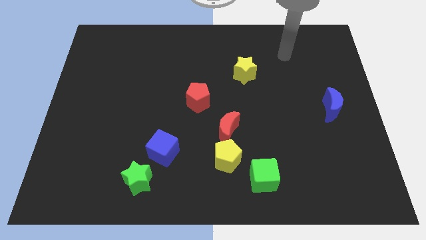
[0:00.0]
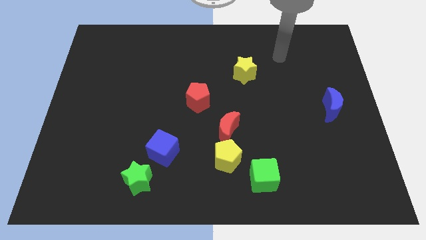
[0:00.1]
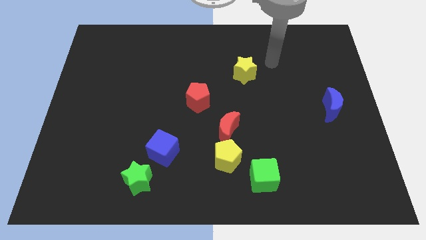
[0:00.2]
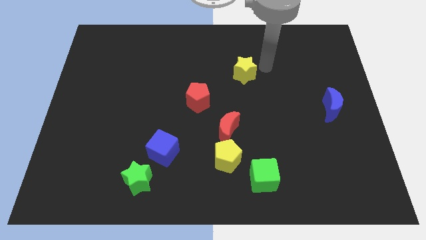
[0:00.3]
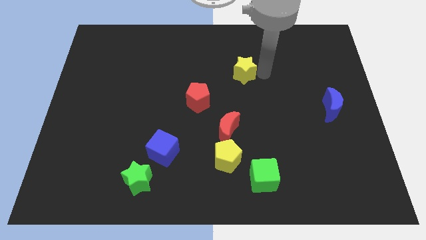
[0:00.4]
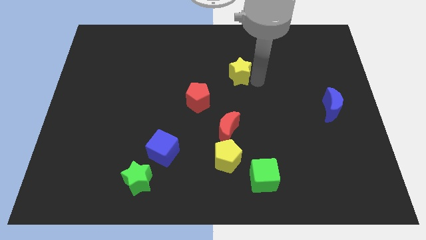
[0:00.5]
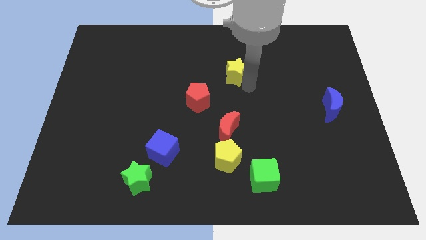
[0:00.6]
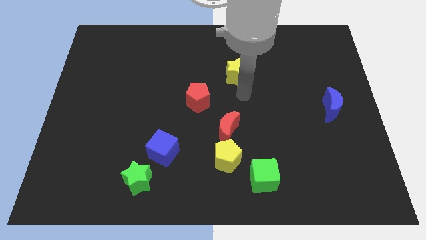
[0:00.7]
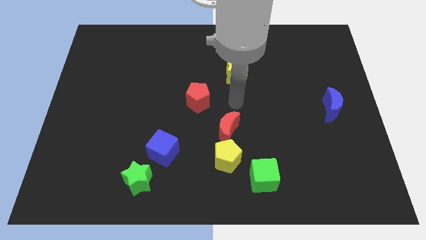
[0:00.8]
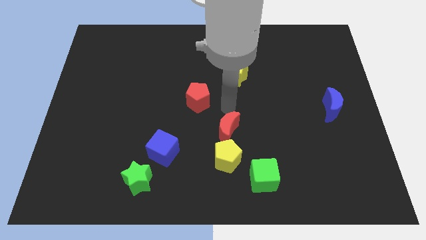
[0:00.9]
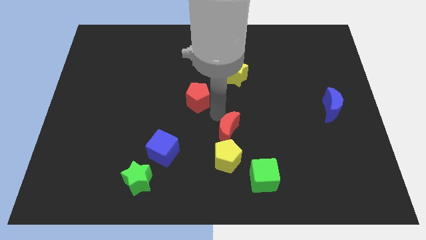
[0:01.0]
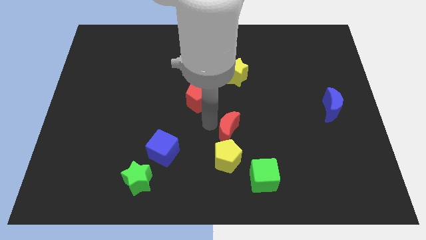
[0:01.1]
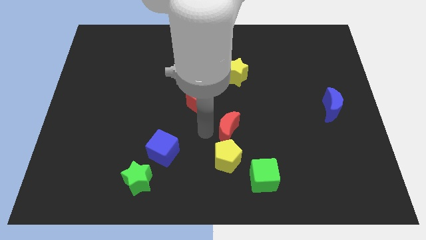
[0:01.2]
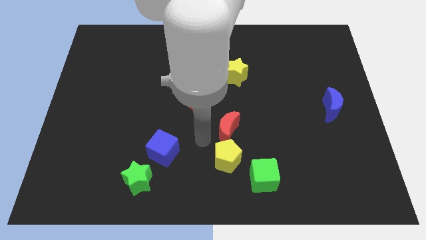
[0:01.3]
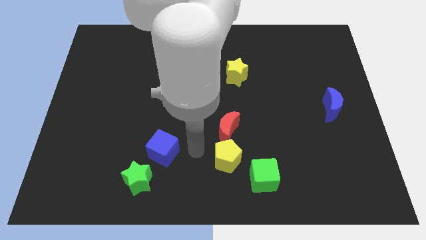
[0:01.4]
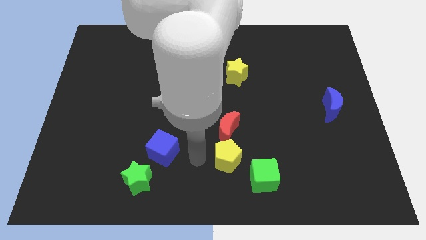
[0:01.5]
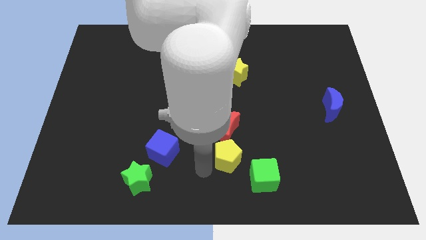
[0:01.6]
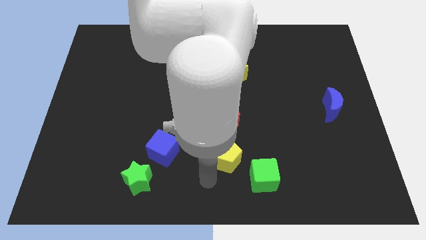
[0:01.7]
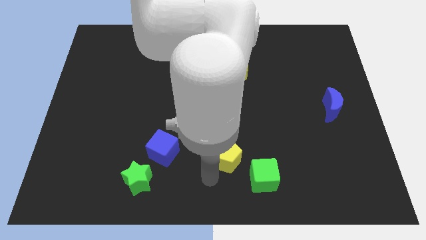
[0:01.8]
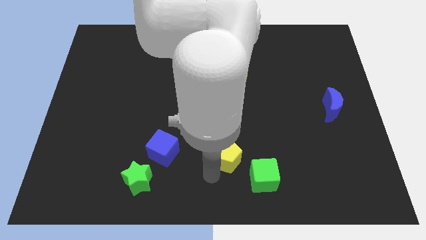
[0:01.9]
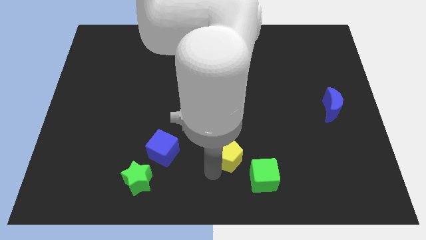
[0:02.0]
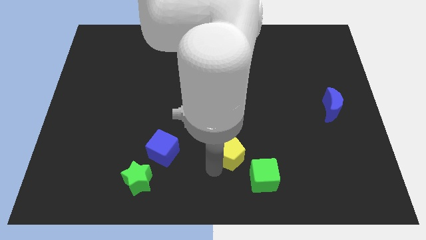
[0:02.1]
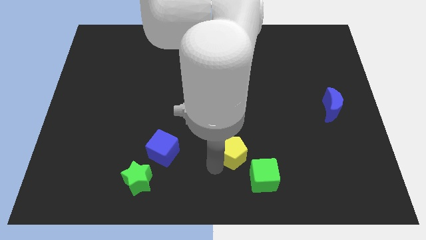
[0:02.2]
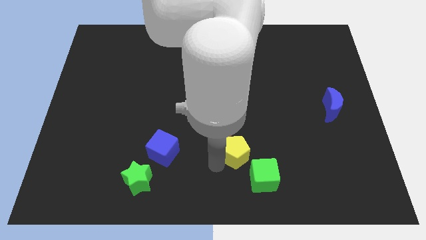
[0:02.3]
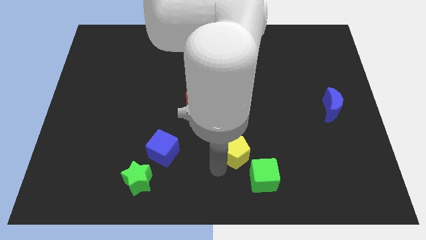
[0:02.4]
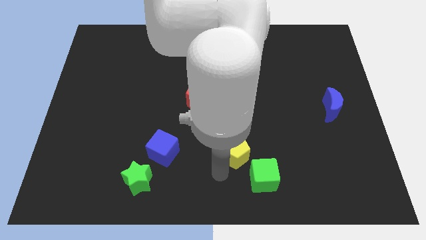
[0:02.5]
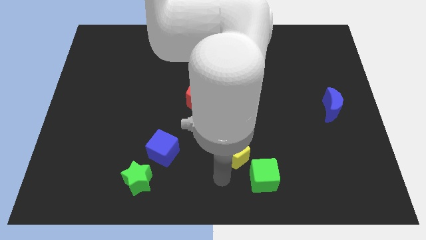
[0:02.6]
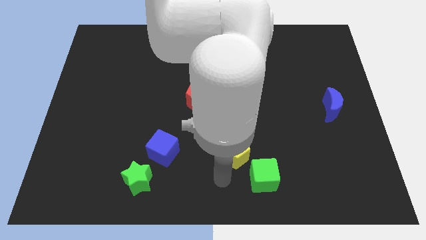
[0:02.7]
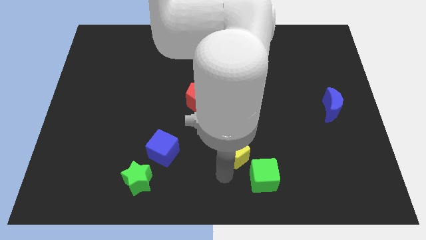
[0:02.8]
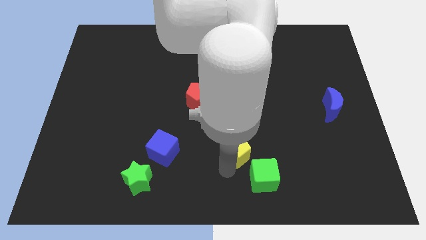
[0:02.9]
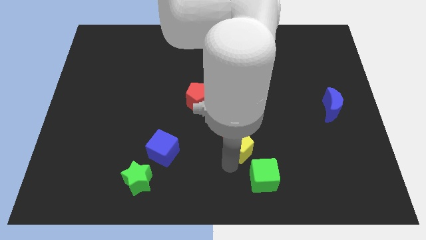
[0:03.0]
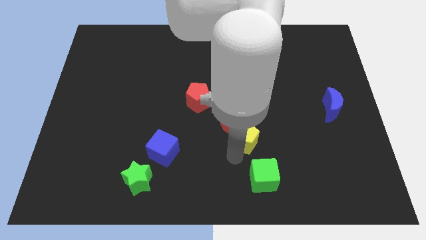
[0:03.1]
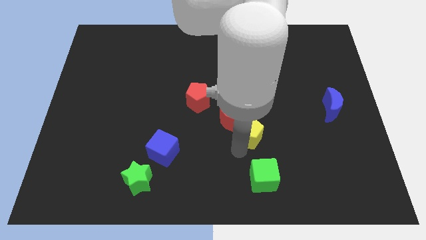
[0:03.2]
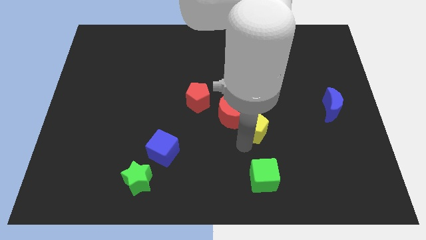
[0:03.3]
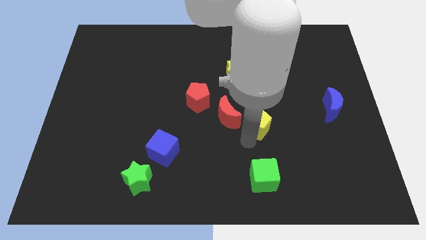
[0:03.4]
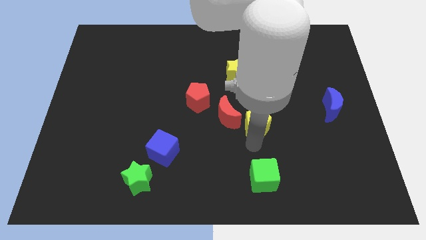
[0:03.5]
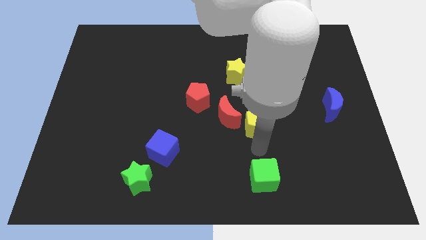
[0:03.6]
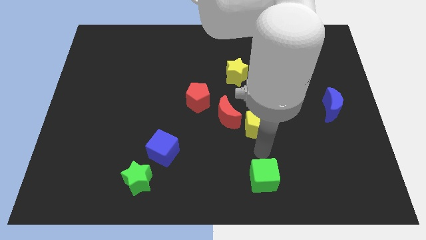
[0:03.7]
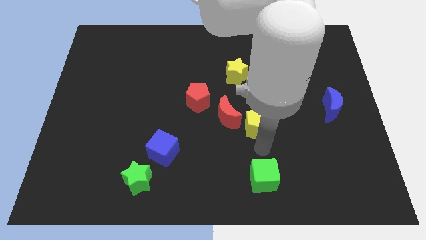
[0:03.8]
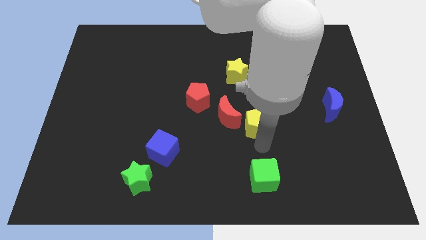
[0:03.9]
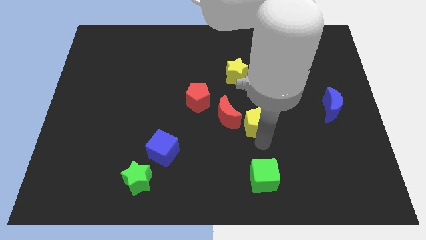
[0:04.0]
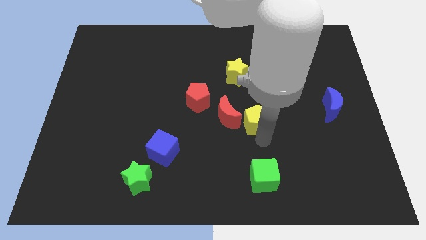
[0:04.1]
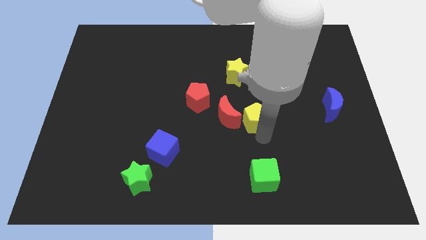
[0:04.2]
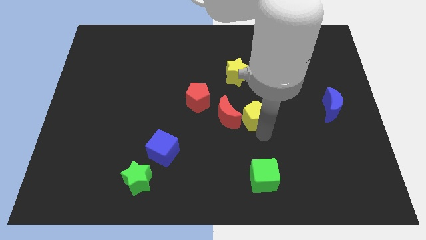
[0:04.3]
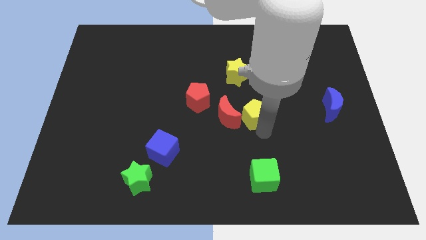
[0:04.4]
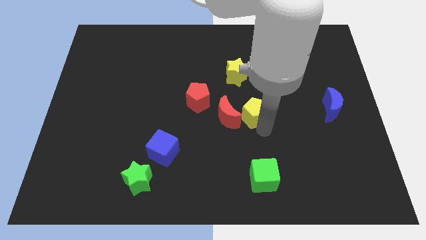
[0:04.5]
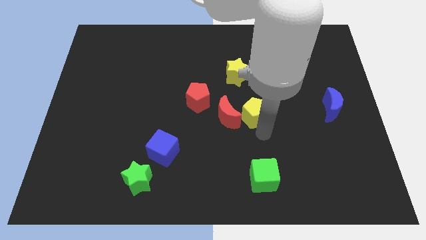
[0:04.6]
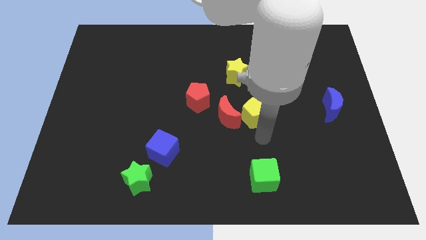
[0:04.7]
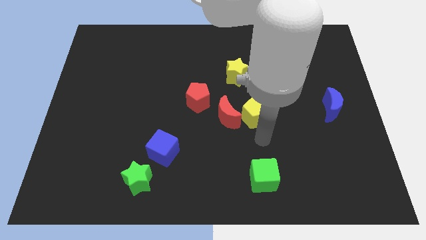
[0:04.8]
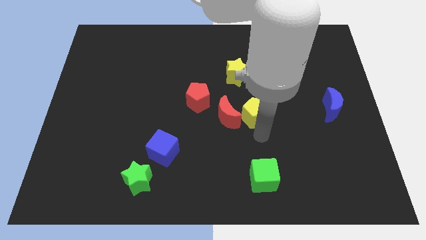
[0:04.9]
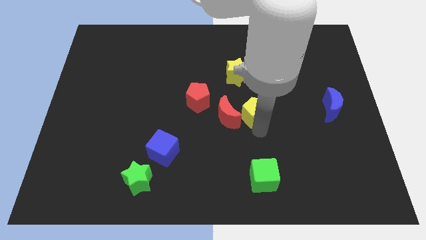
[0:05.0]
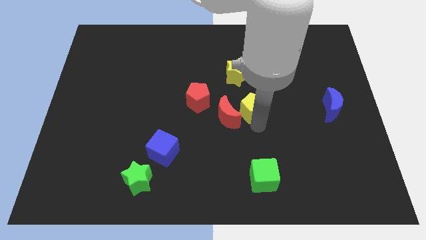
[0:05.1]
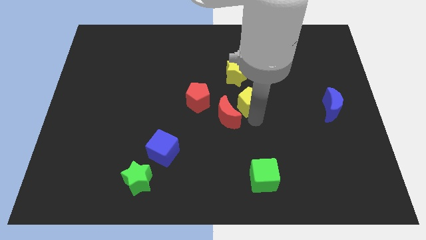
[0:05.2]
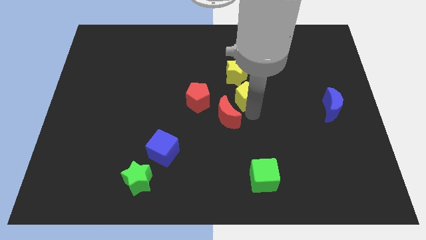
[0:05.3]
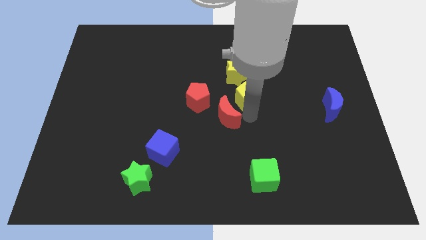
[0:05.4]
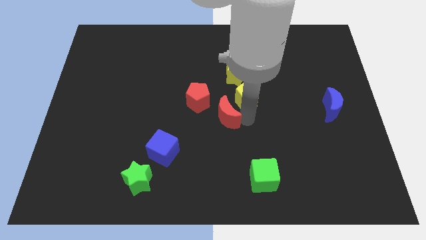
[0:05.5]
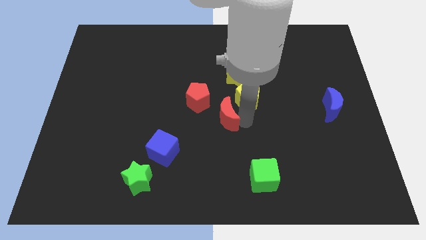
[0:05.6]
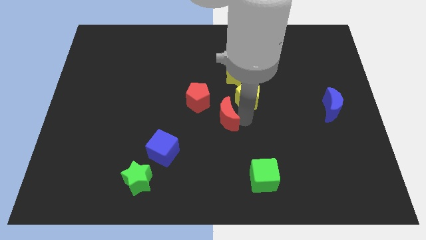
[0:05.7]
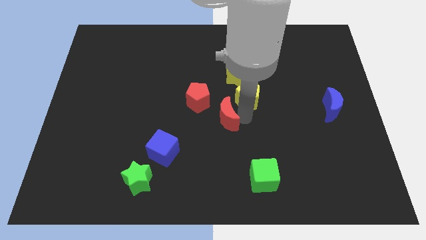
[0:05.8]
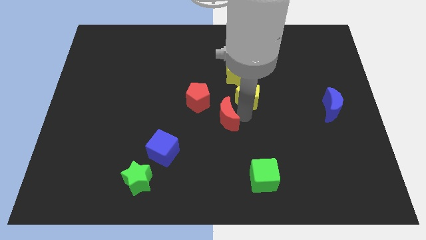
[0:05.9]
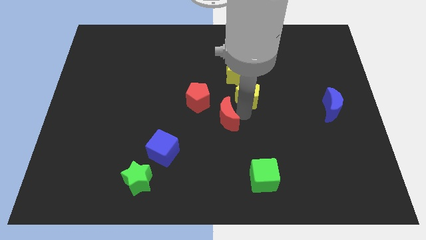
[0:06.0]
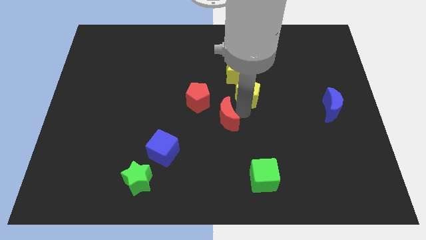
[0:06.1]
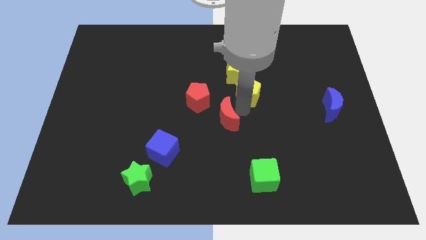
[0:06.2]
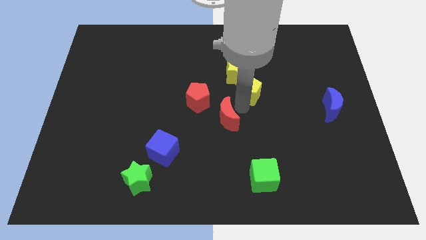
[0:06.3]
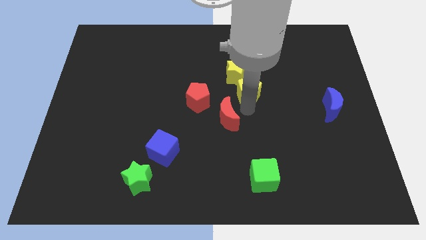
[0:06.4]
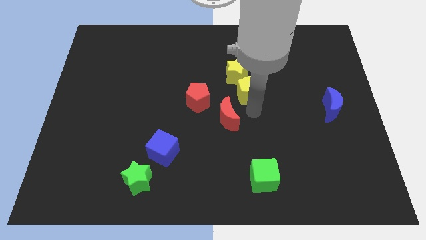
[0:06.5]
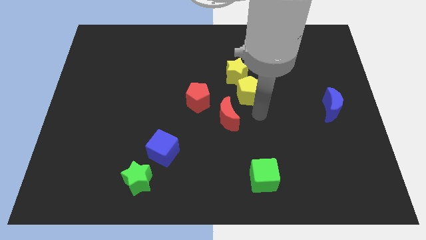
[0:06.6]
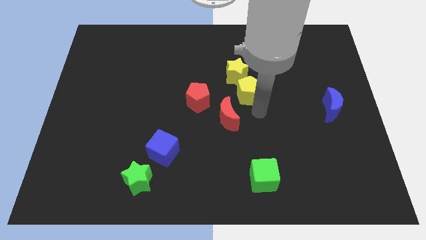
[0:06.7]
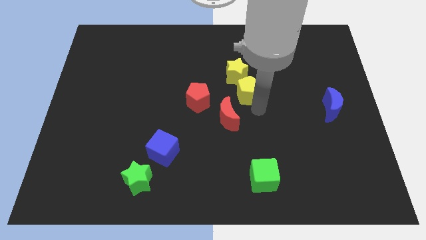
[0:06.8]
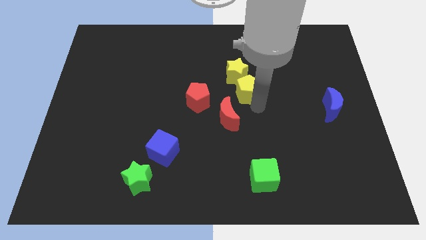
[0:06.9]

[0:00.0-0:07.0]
put the yellow pentagon next to the yellow star

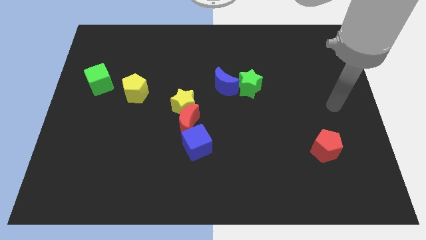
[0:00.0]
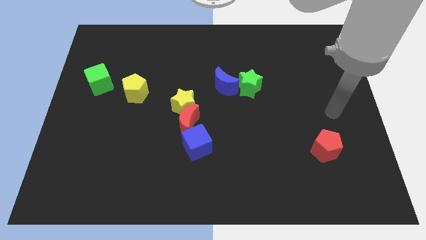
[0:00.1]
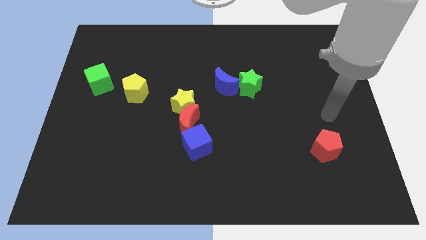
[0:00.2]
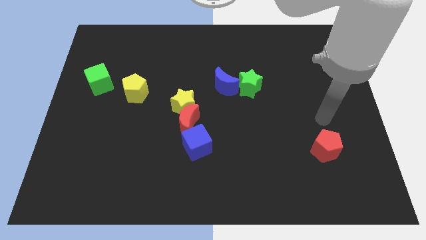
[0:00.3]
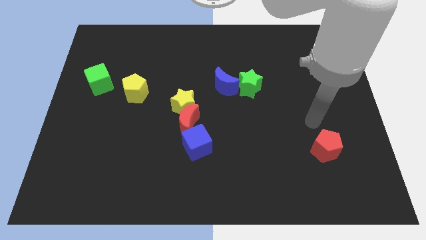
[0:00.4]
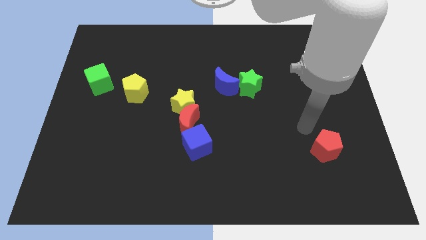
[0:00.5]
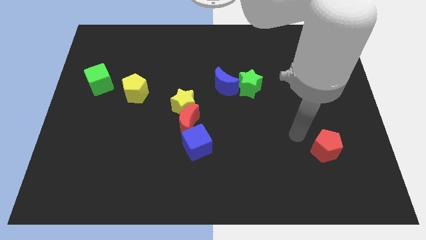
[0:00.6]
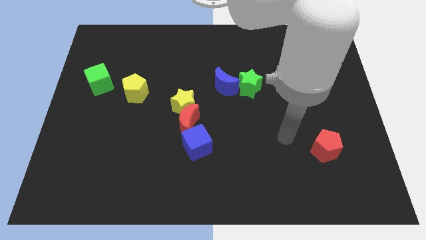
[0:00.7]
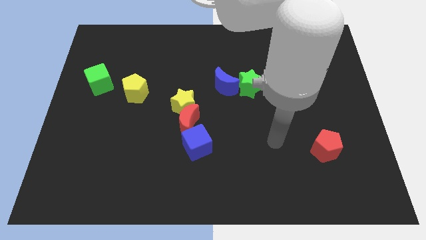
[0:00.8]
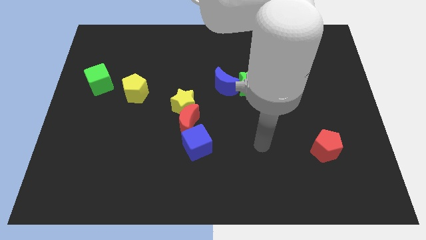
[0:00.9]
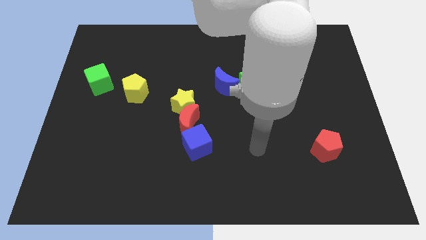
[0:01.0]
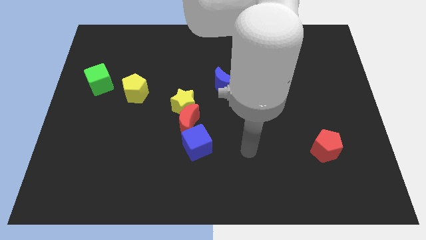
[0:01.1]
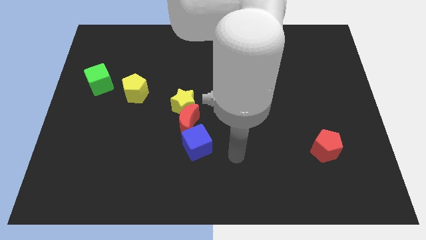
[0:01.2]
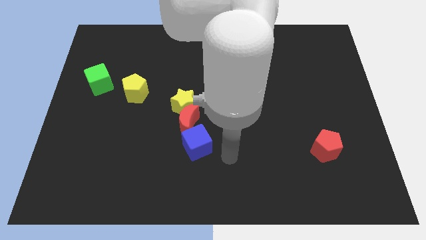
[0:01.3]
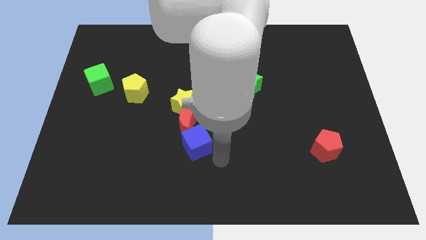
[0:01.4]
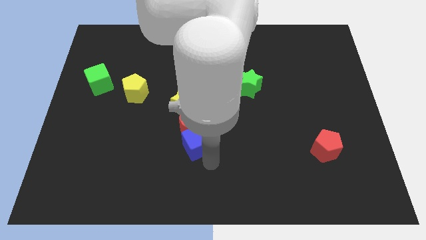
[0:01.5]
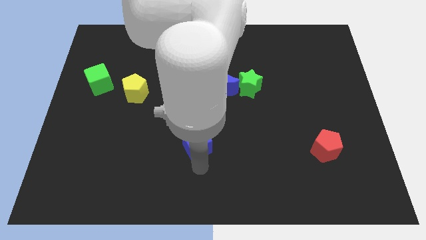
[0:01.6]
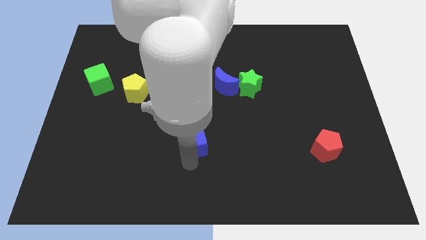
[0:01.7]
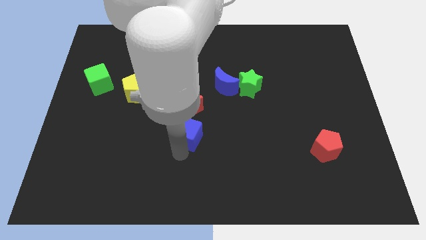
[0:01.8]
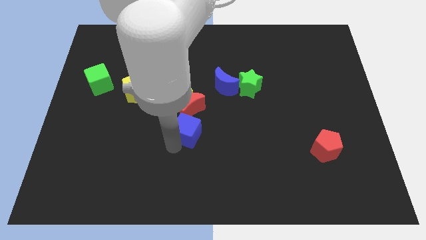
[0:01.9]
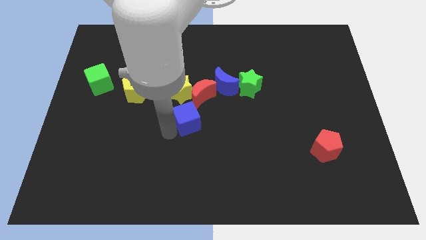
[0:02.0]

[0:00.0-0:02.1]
slide the red moon towards the blue moon
